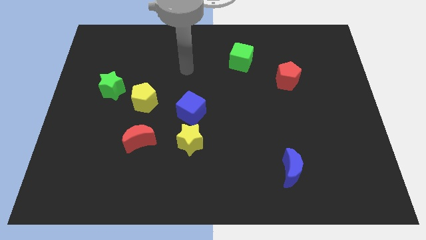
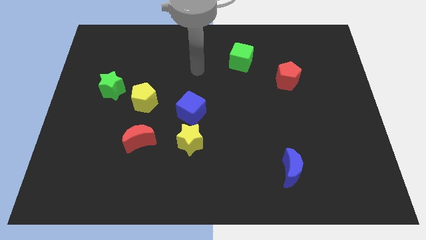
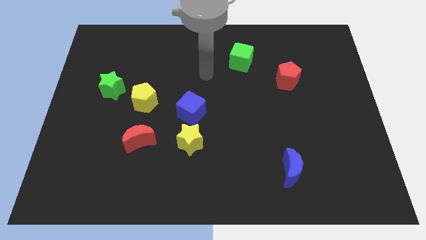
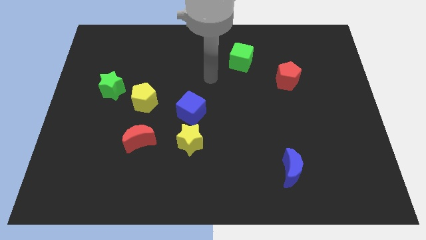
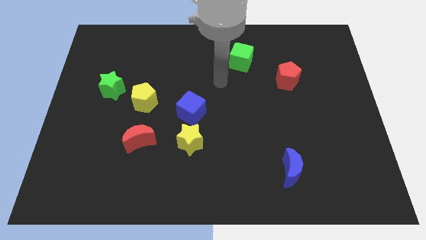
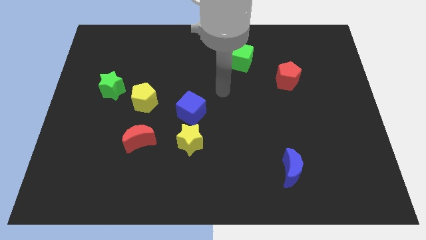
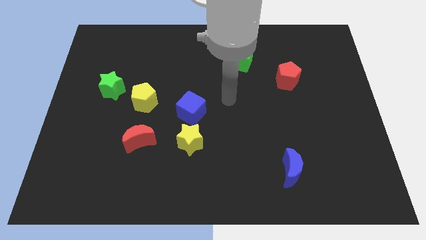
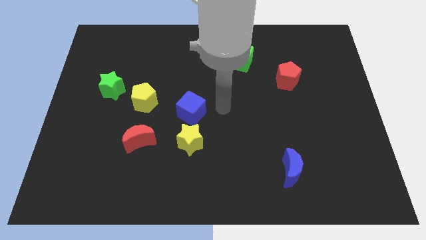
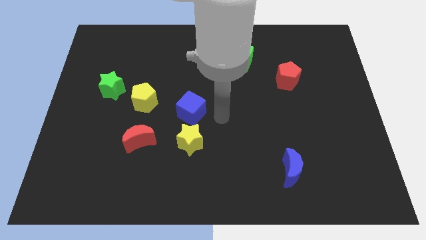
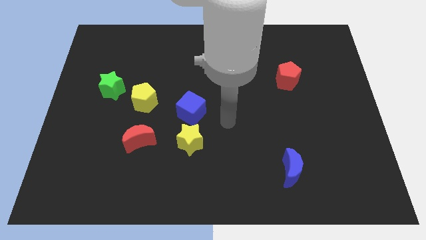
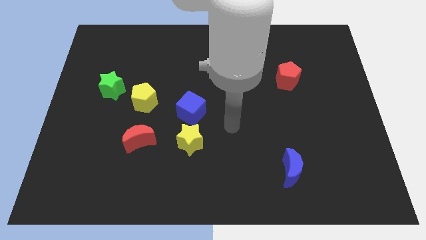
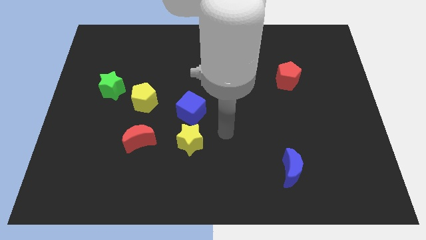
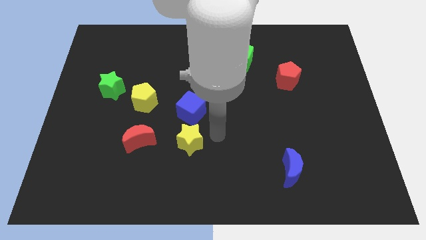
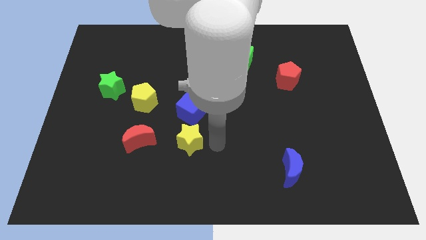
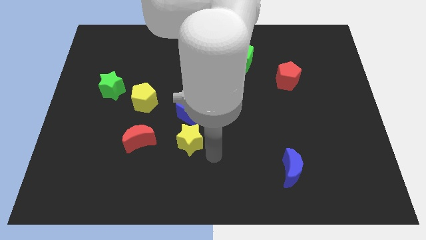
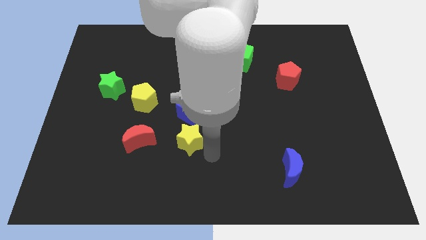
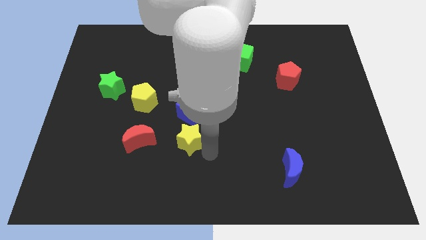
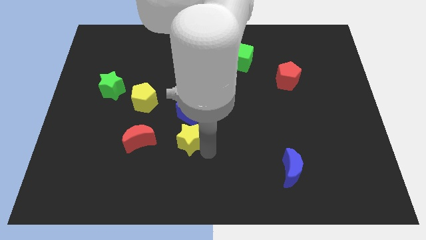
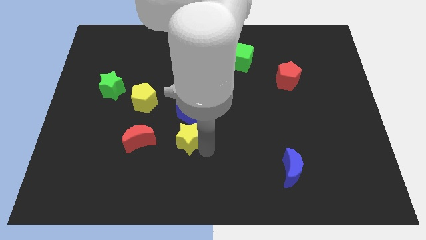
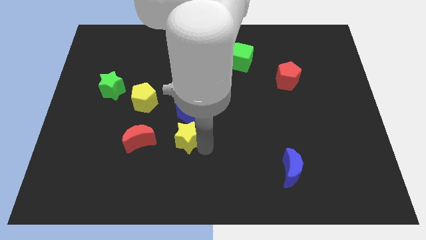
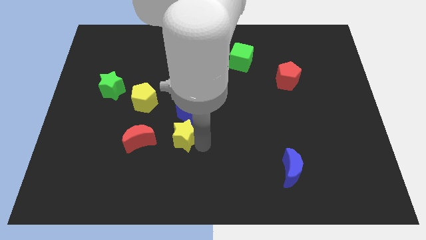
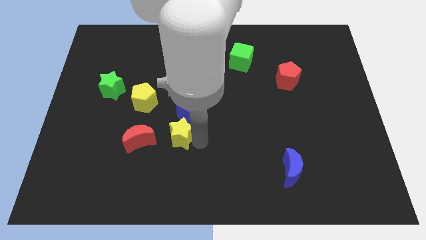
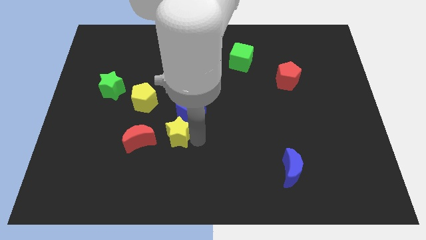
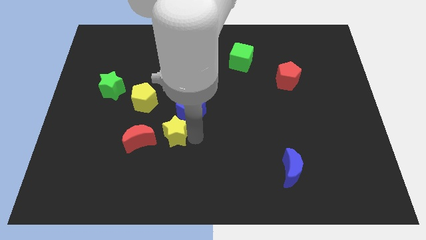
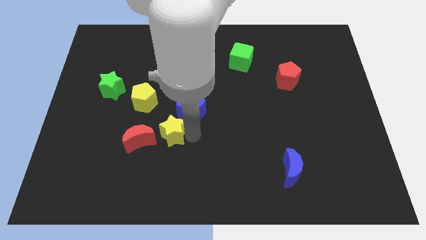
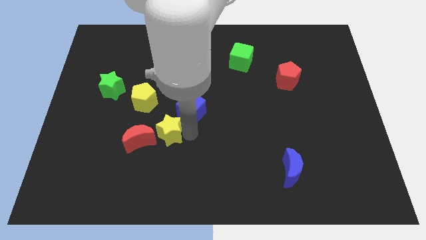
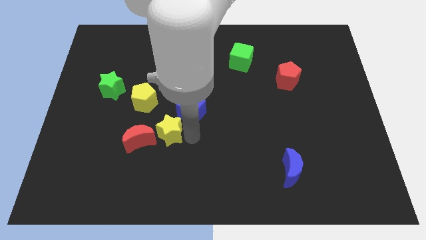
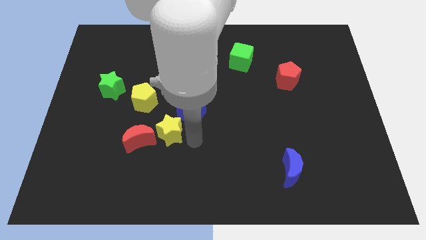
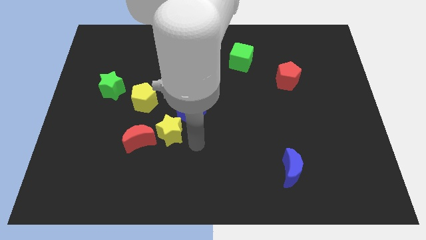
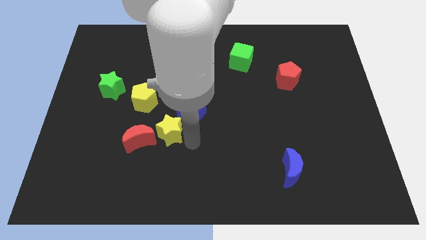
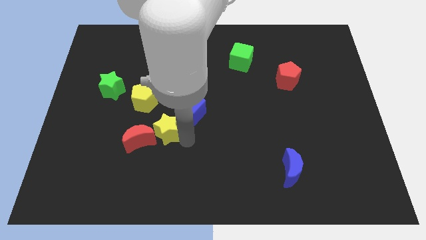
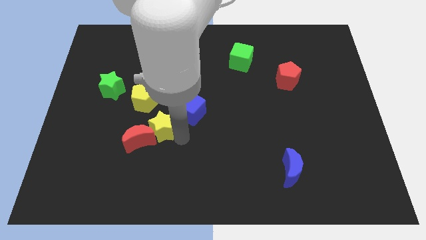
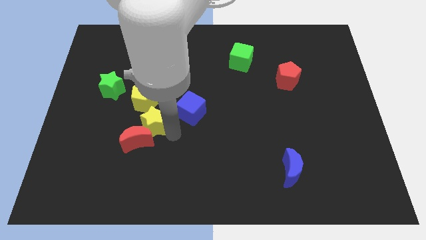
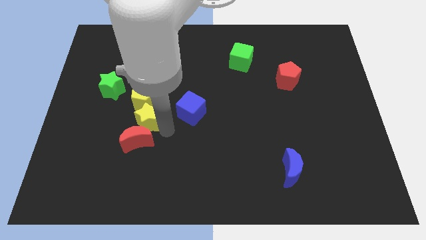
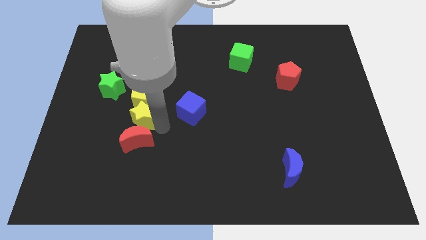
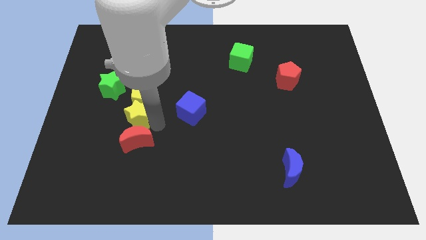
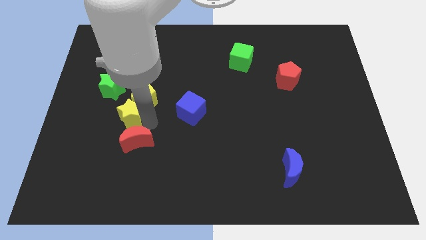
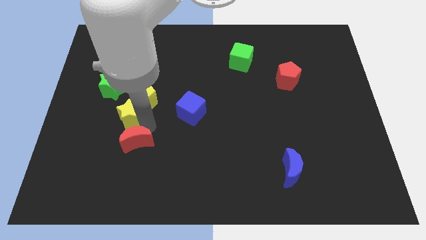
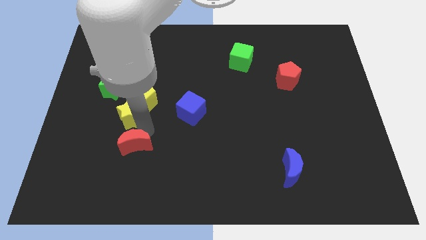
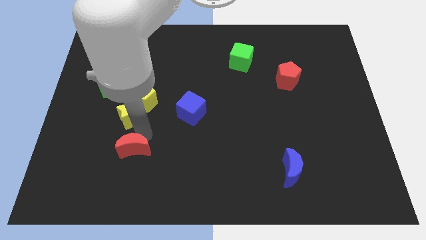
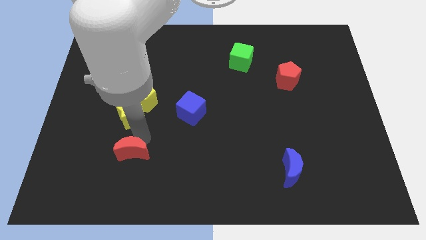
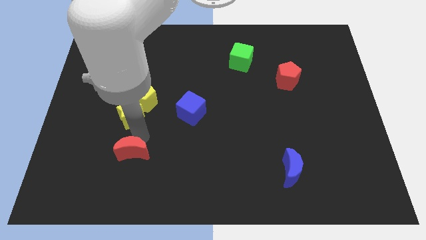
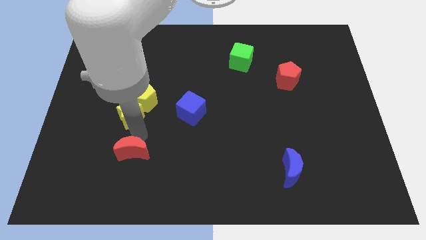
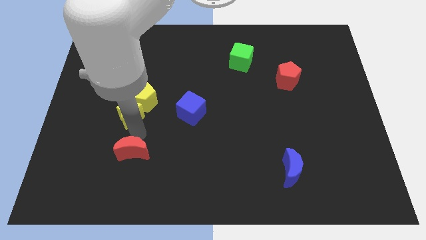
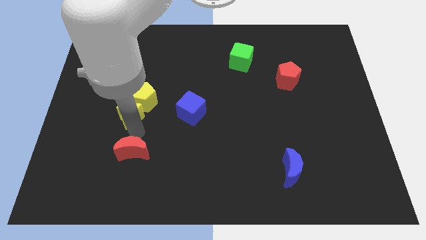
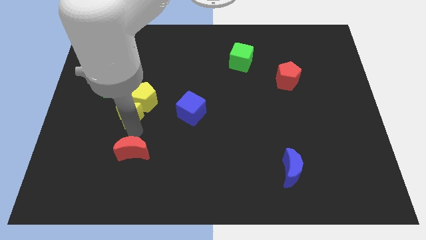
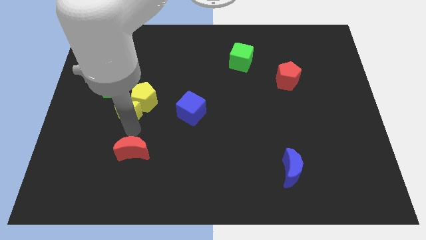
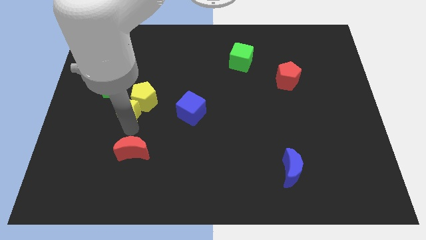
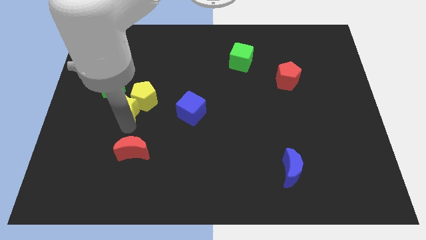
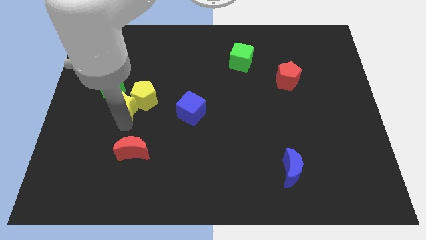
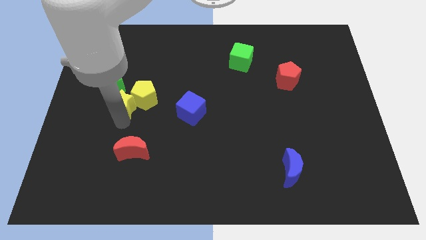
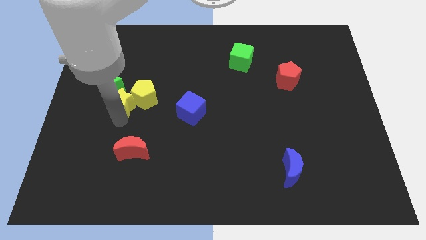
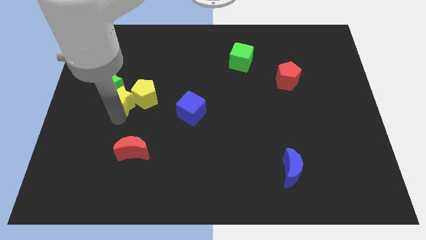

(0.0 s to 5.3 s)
slide the yellow star to the green star

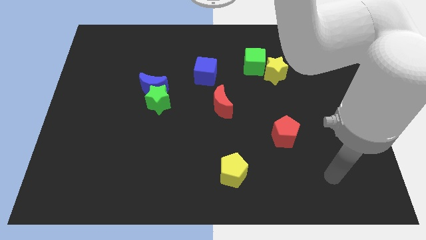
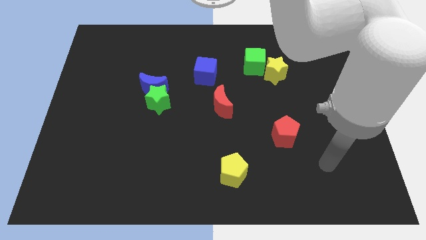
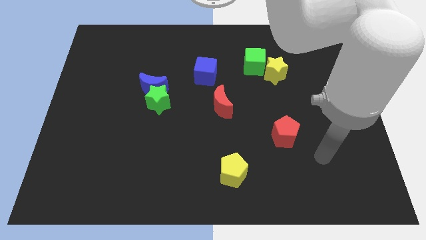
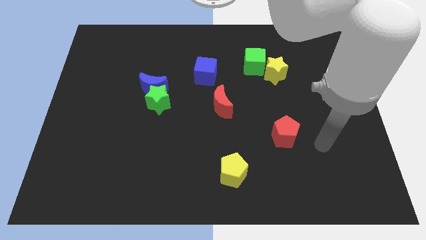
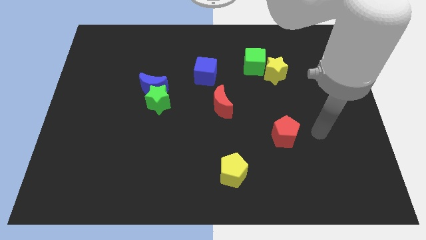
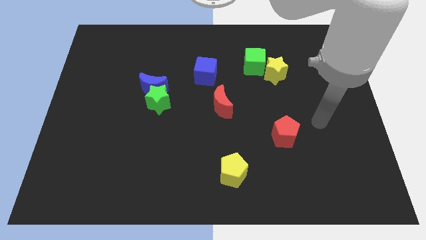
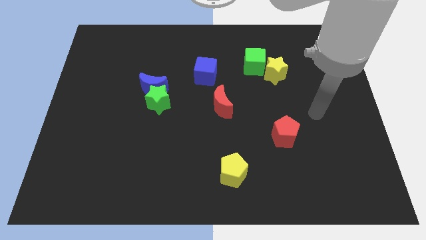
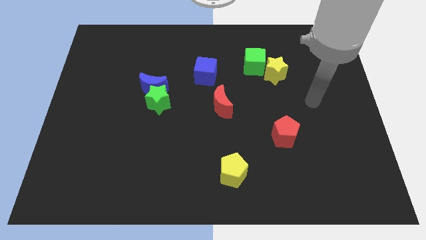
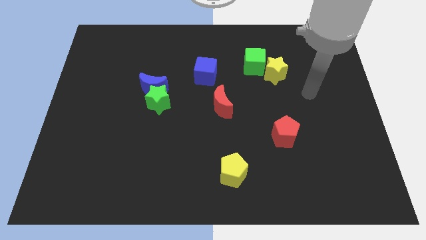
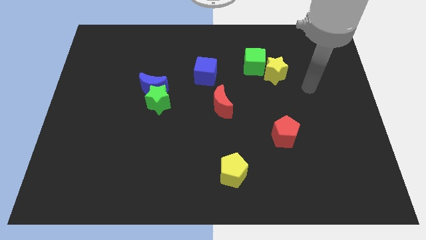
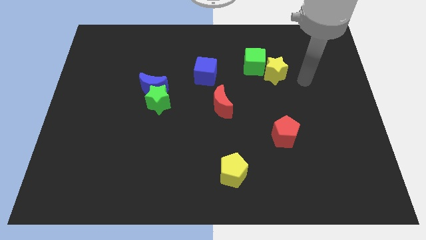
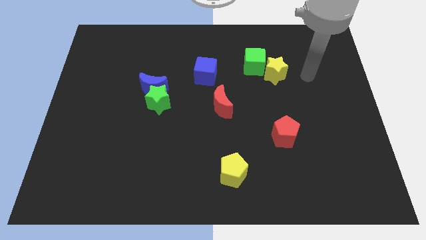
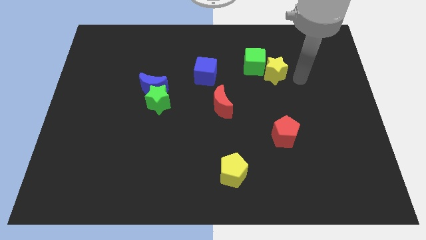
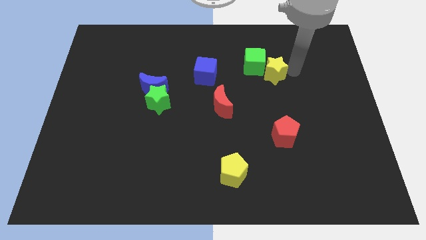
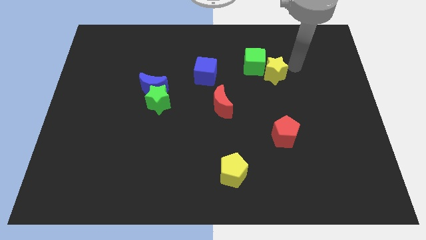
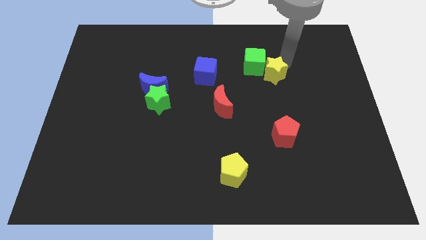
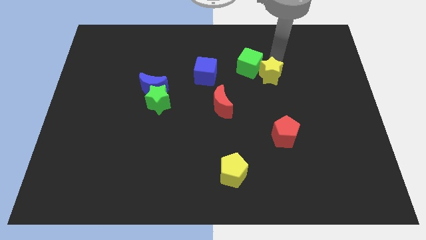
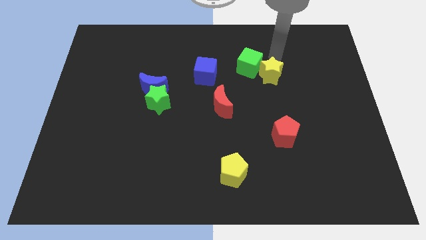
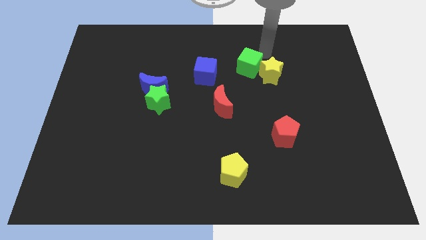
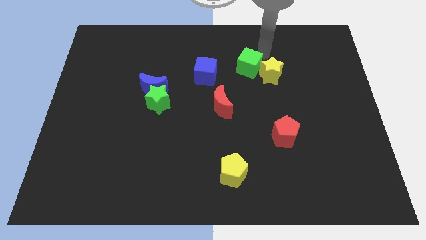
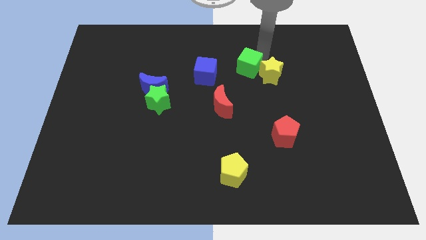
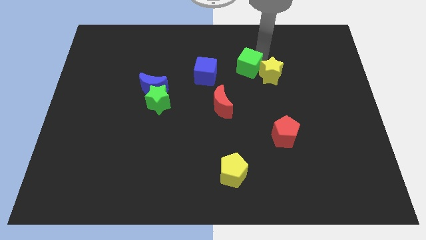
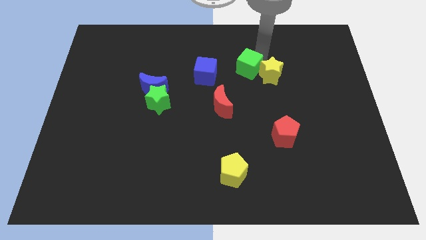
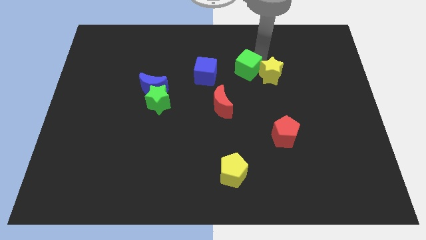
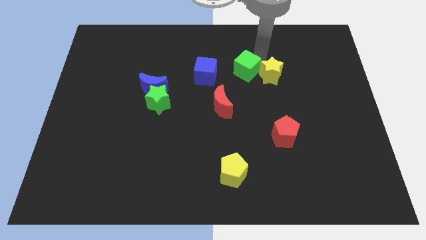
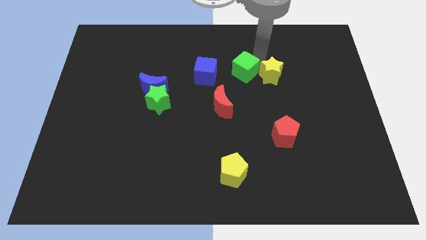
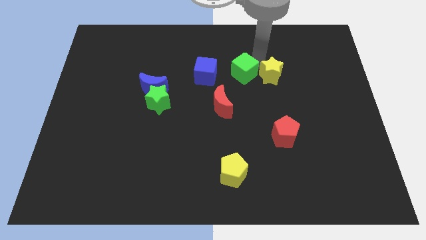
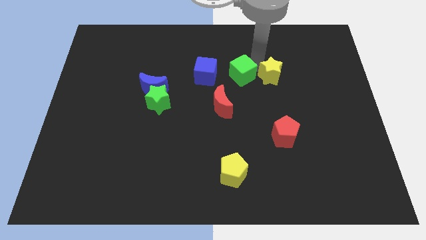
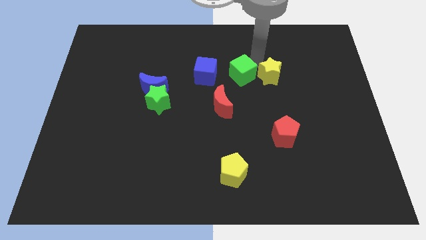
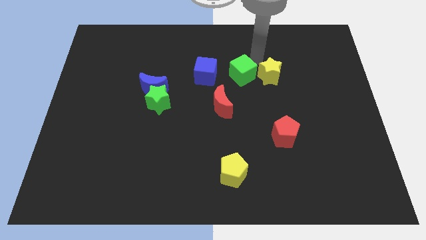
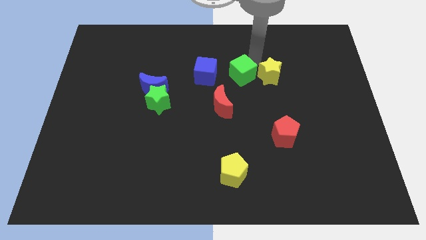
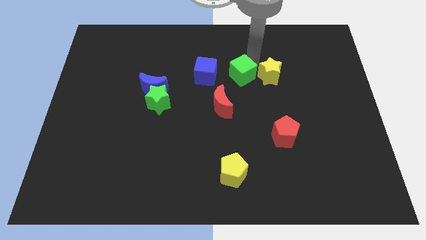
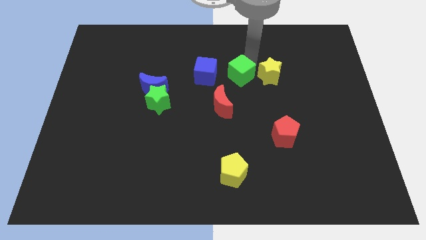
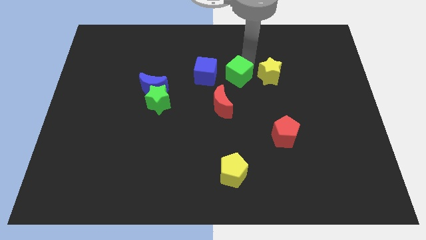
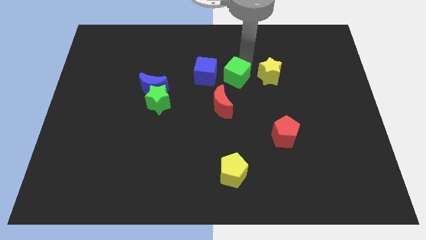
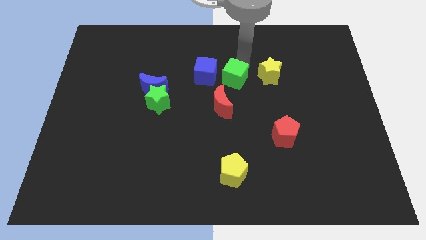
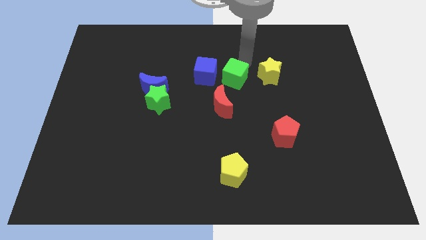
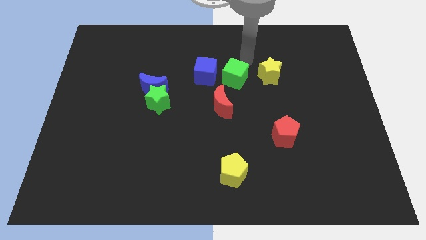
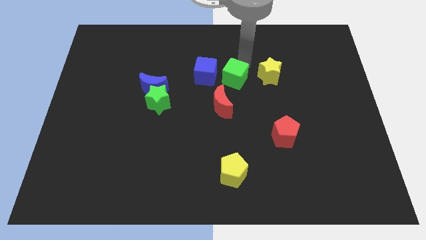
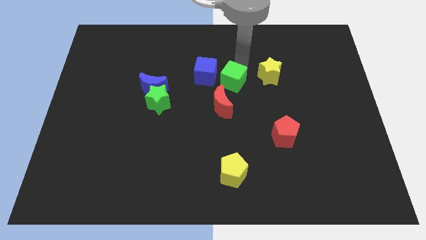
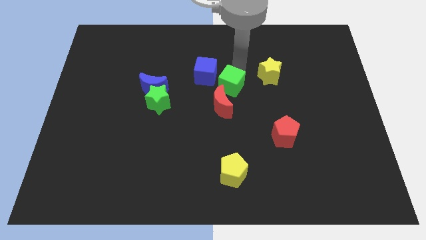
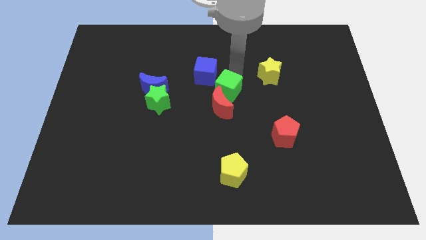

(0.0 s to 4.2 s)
put the green cube towards the red moon
